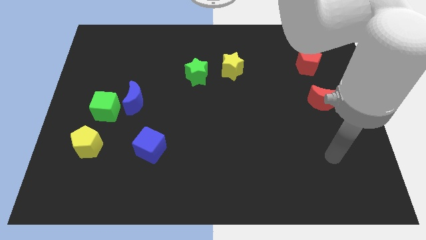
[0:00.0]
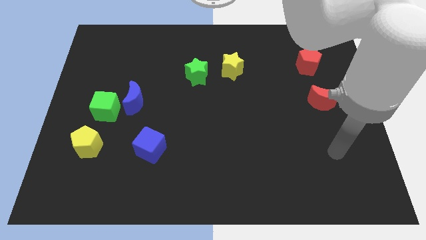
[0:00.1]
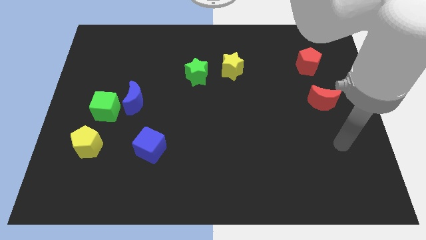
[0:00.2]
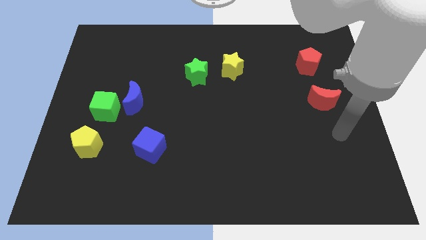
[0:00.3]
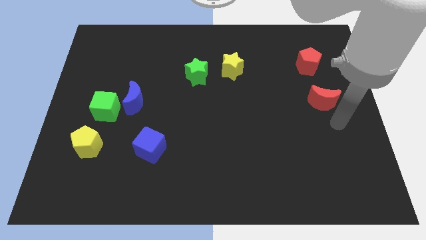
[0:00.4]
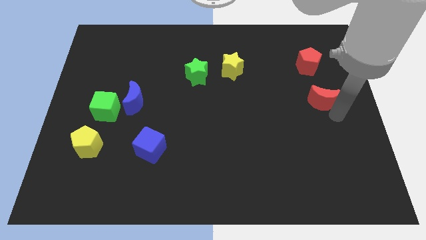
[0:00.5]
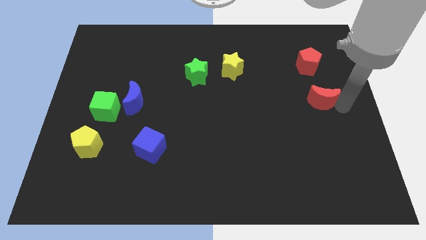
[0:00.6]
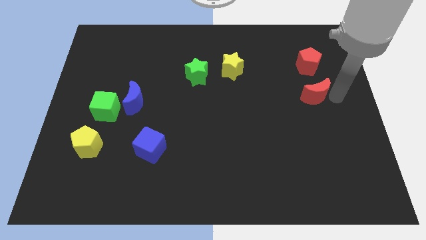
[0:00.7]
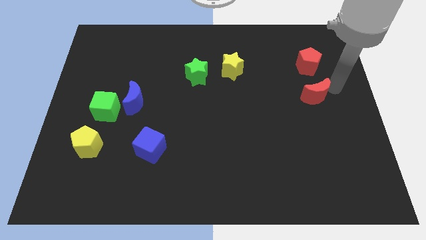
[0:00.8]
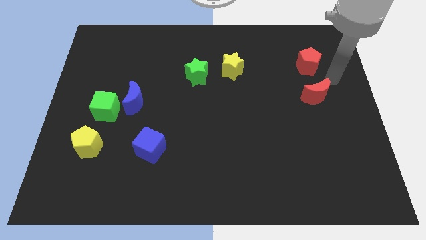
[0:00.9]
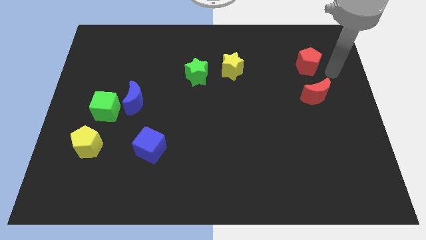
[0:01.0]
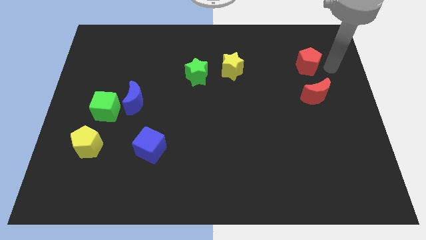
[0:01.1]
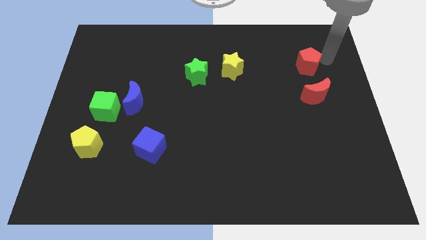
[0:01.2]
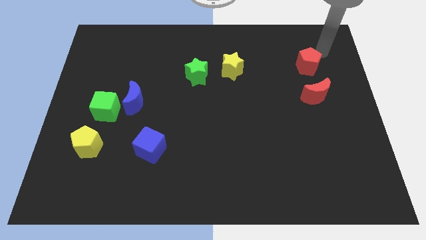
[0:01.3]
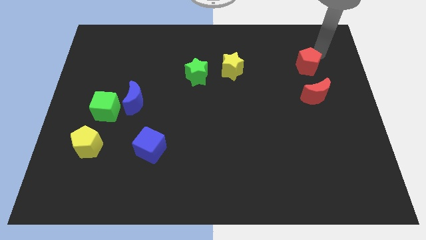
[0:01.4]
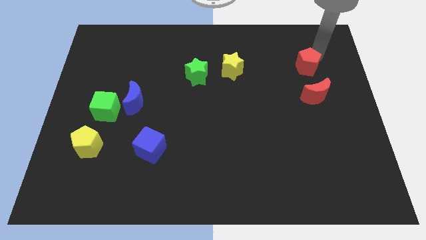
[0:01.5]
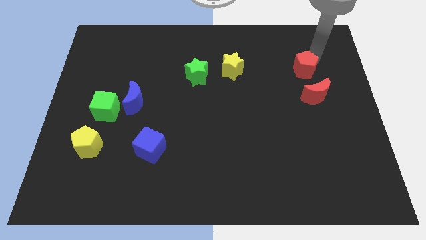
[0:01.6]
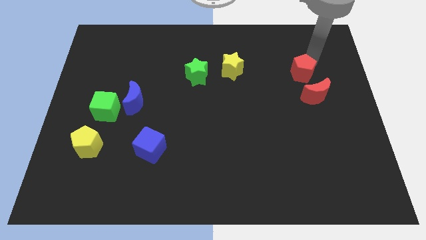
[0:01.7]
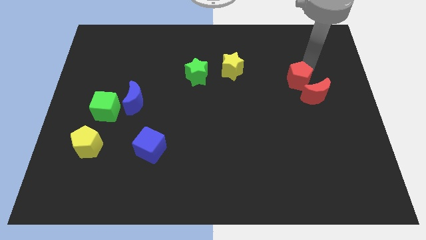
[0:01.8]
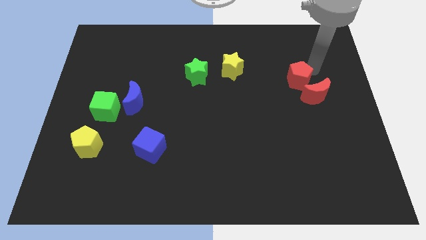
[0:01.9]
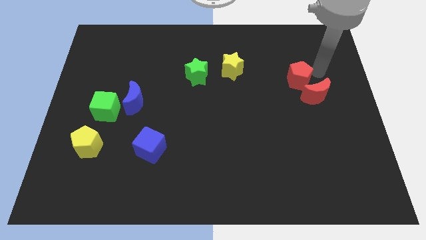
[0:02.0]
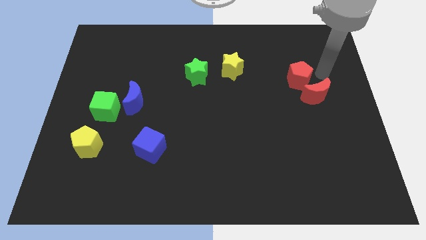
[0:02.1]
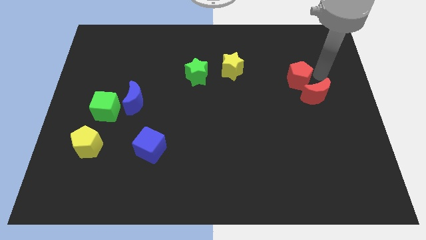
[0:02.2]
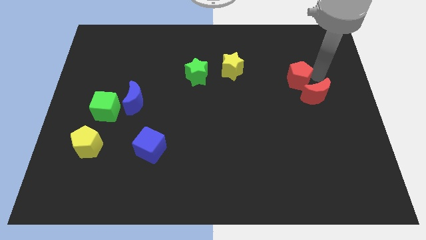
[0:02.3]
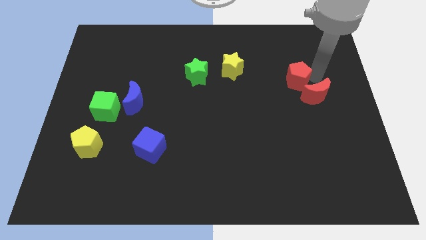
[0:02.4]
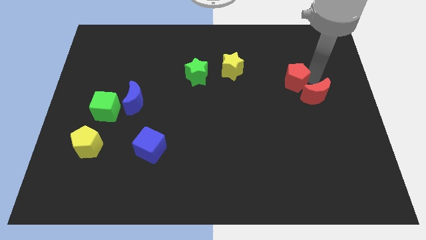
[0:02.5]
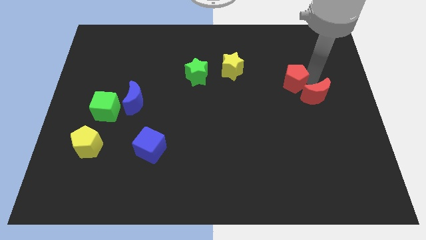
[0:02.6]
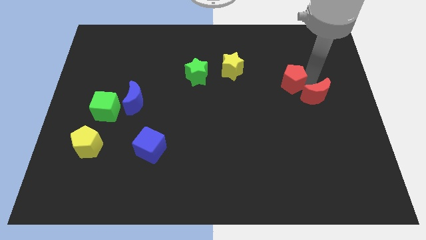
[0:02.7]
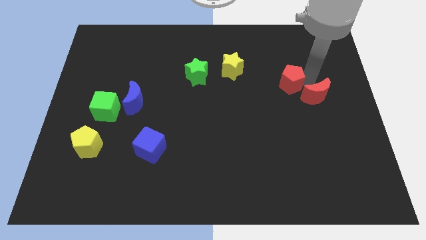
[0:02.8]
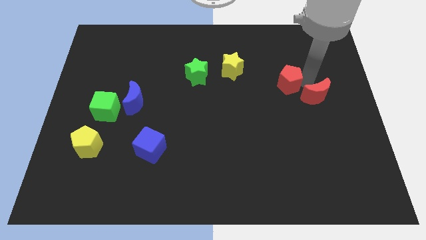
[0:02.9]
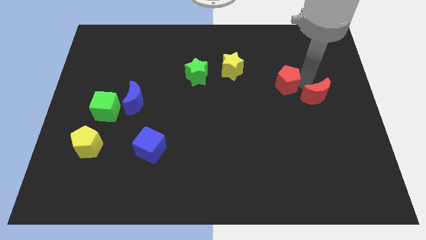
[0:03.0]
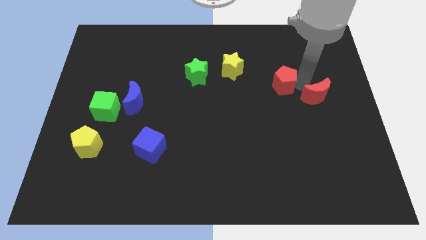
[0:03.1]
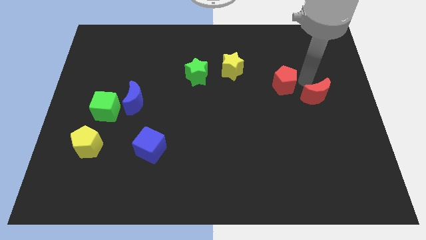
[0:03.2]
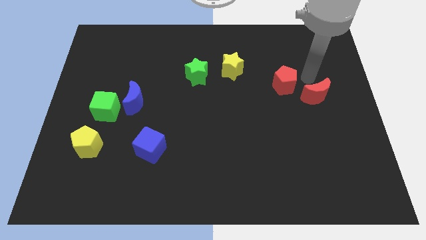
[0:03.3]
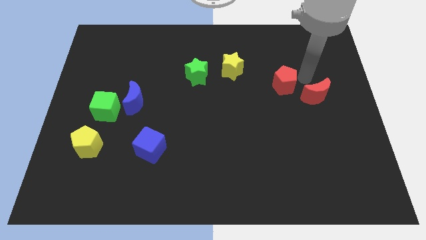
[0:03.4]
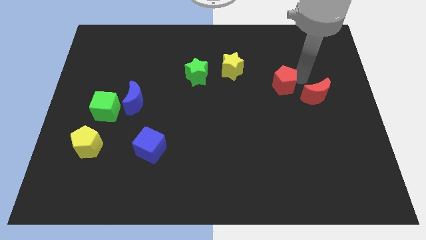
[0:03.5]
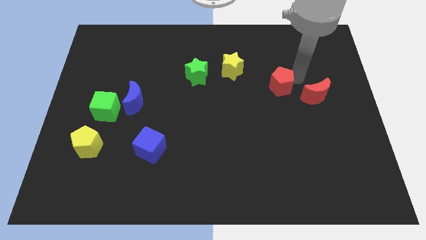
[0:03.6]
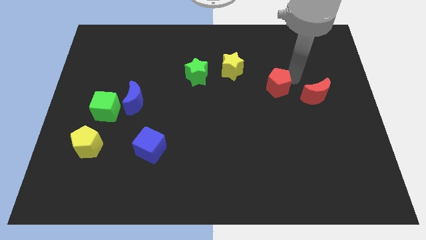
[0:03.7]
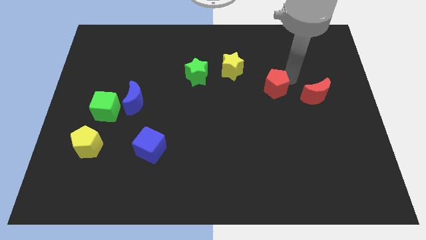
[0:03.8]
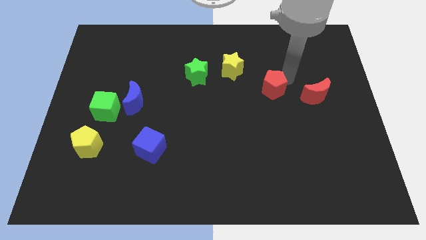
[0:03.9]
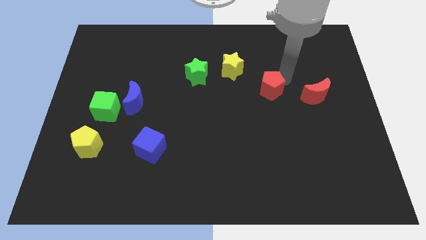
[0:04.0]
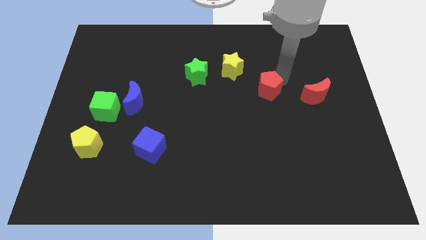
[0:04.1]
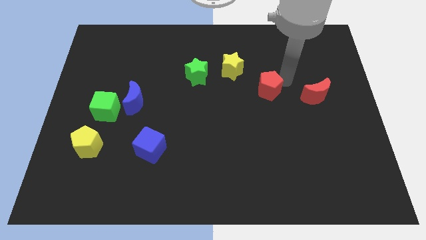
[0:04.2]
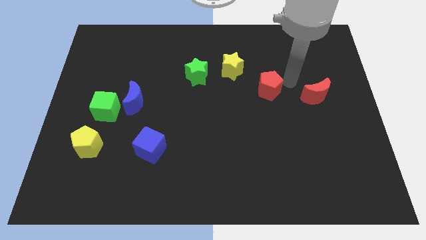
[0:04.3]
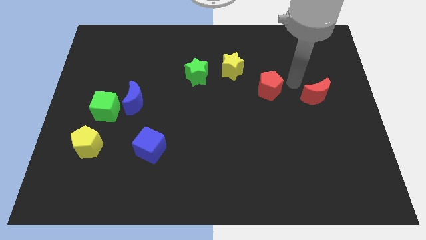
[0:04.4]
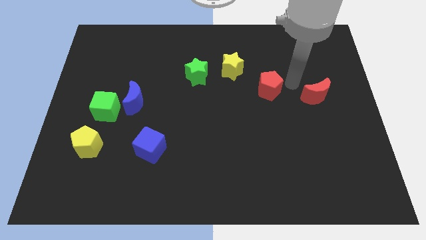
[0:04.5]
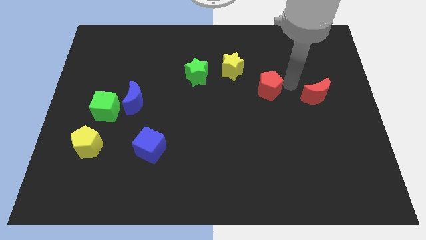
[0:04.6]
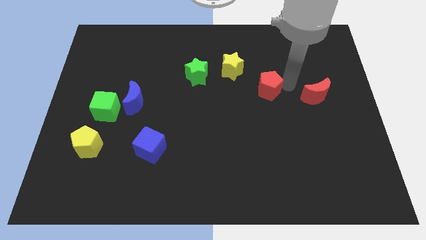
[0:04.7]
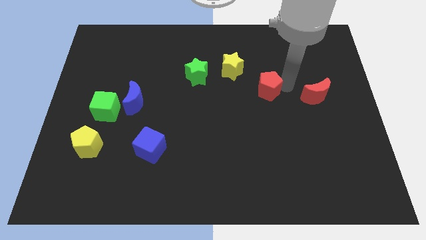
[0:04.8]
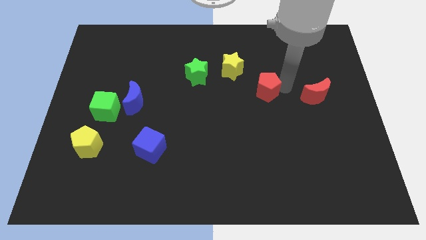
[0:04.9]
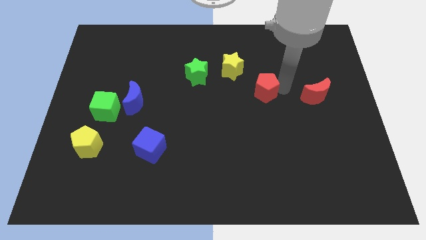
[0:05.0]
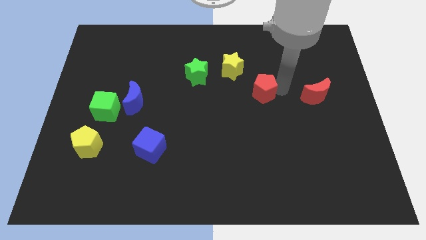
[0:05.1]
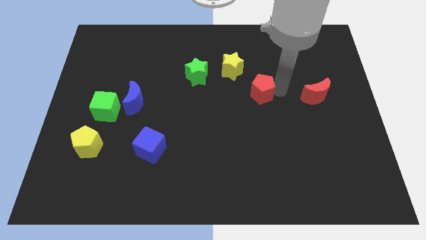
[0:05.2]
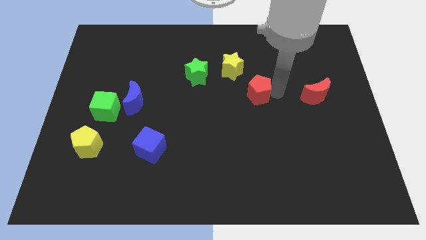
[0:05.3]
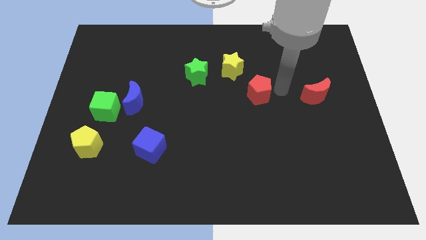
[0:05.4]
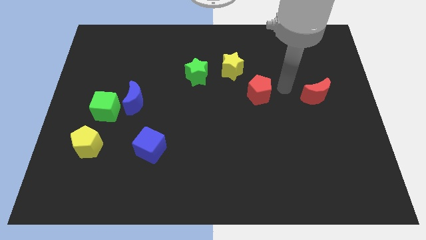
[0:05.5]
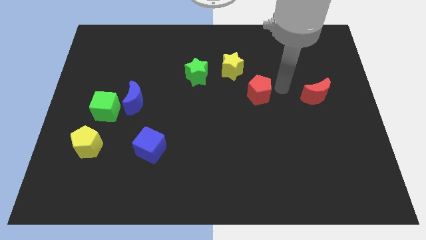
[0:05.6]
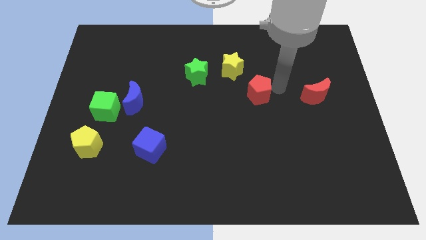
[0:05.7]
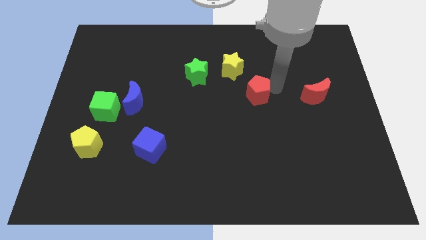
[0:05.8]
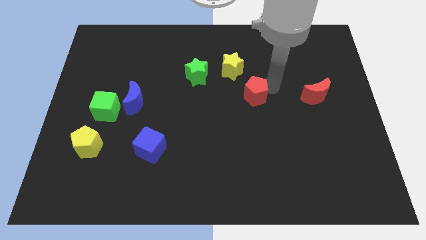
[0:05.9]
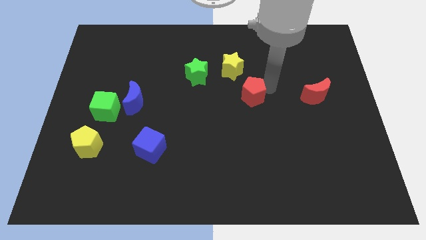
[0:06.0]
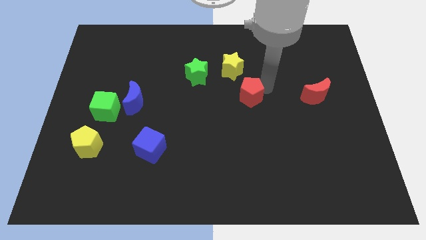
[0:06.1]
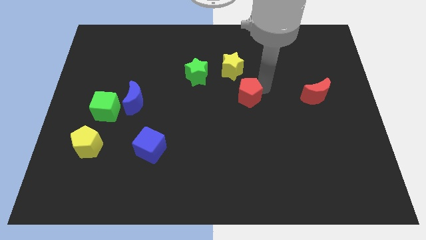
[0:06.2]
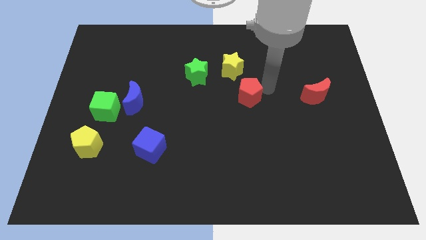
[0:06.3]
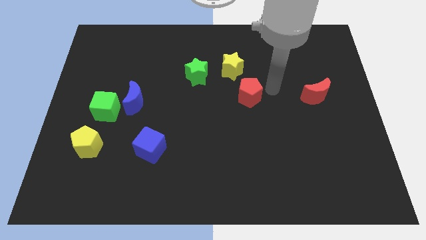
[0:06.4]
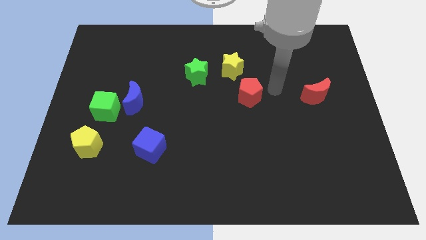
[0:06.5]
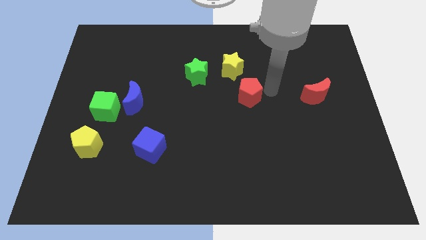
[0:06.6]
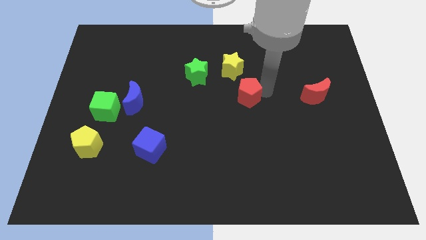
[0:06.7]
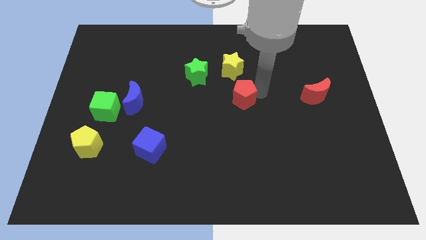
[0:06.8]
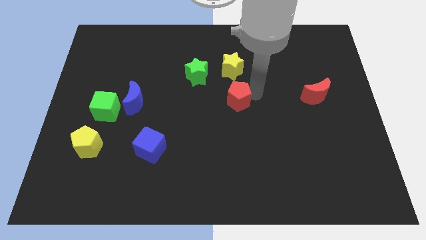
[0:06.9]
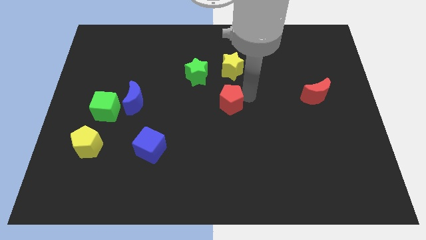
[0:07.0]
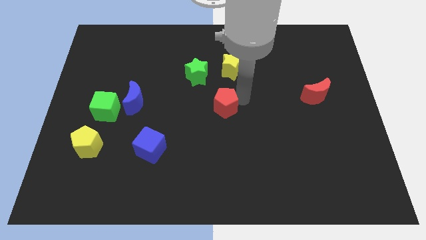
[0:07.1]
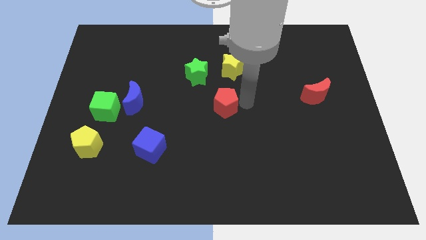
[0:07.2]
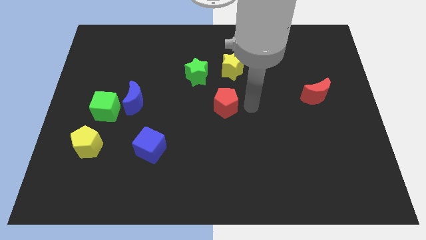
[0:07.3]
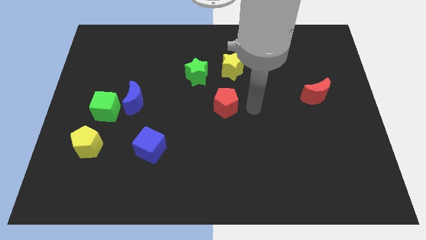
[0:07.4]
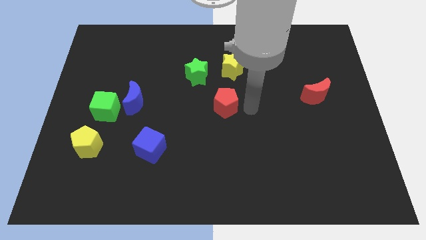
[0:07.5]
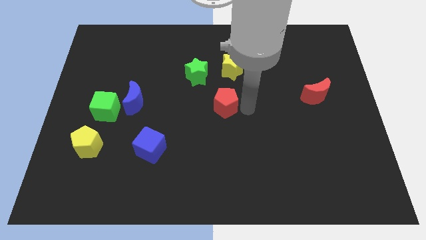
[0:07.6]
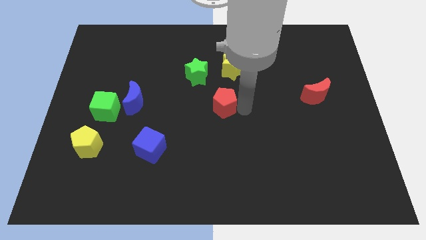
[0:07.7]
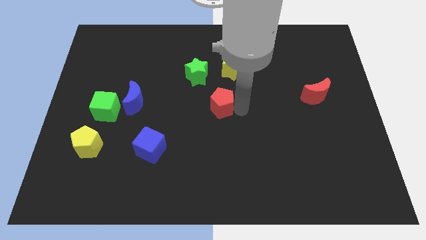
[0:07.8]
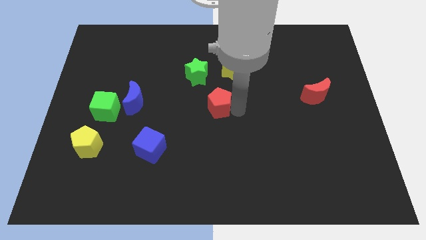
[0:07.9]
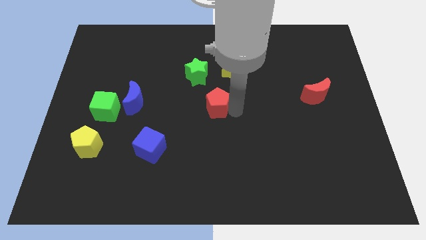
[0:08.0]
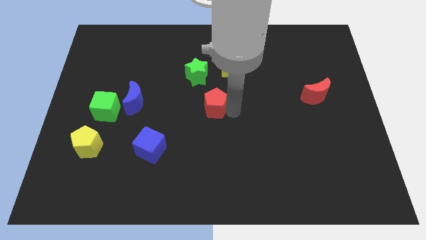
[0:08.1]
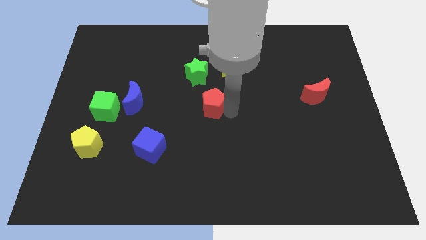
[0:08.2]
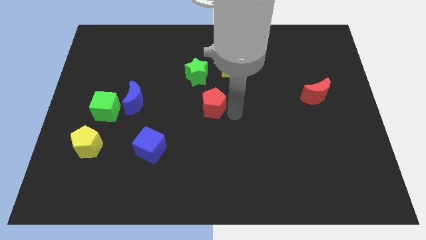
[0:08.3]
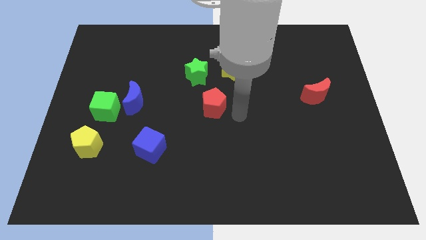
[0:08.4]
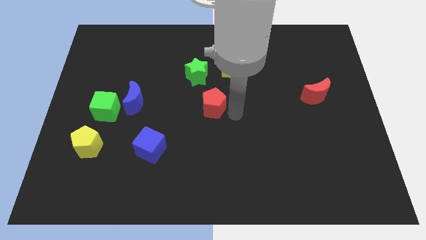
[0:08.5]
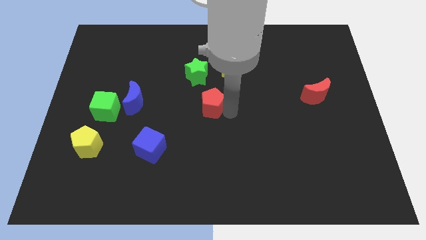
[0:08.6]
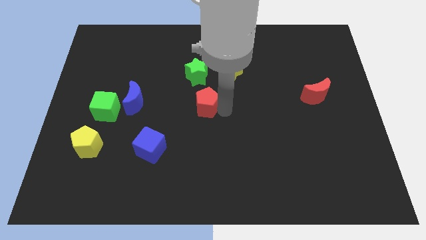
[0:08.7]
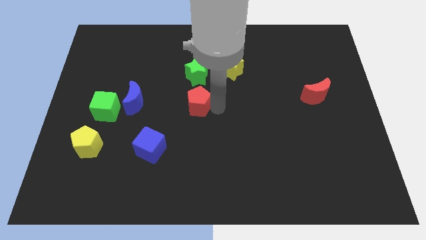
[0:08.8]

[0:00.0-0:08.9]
slide the red pentagon just right of the blue moon
